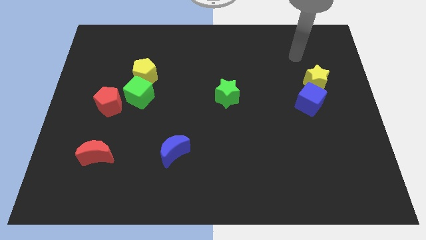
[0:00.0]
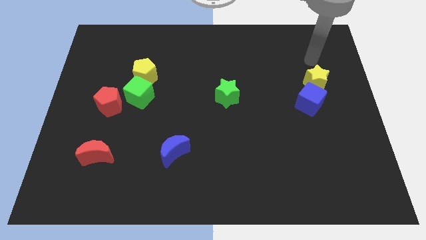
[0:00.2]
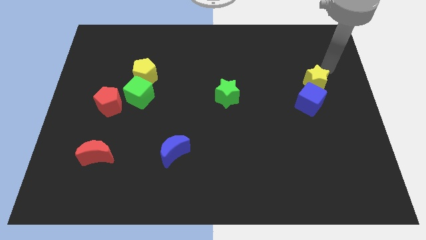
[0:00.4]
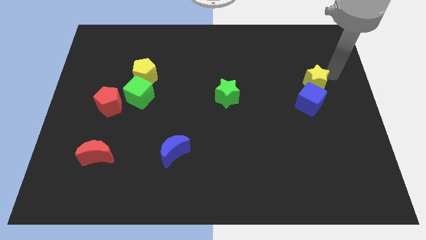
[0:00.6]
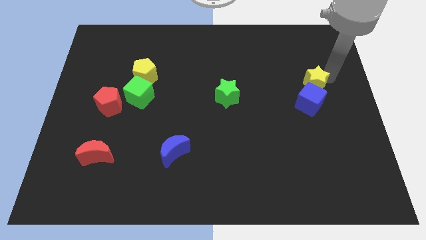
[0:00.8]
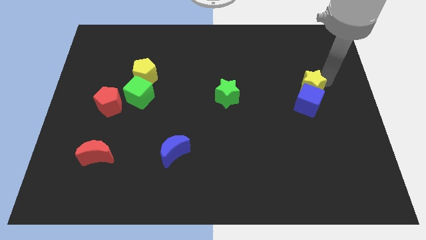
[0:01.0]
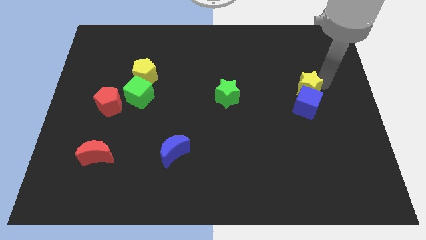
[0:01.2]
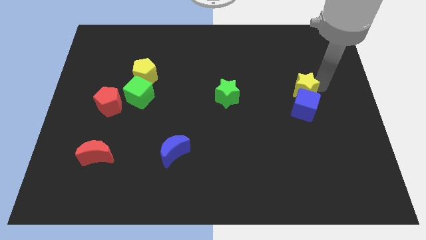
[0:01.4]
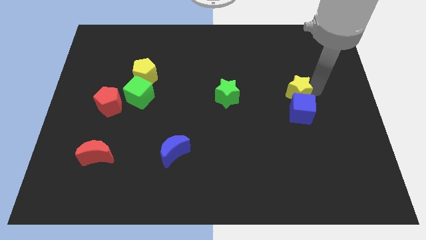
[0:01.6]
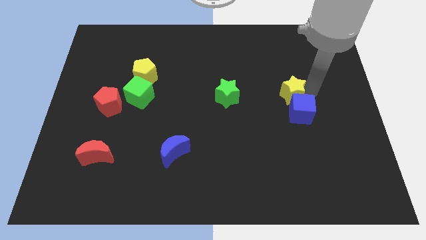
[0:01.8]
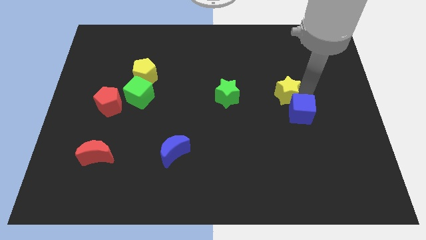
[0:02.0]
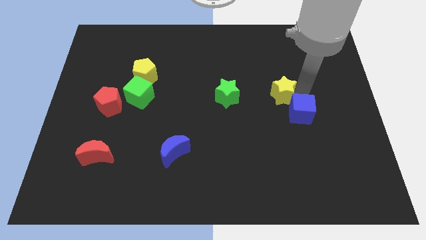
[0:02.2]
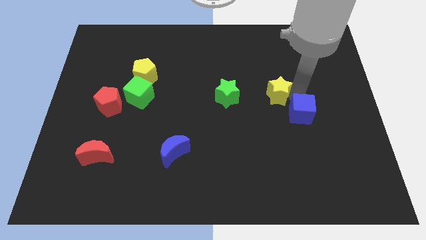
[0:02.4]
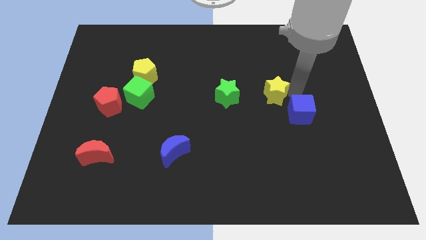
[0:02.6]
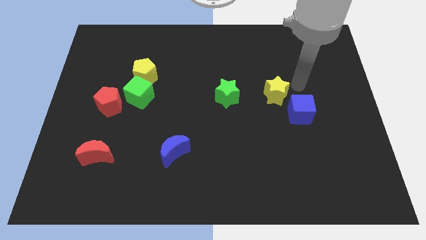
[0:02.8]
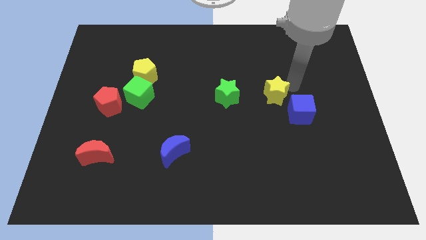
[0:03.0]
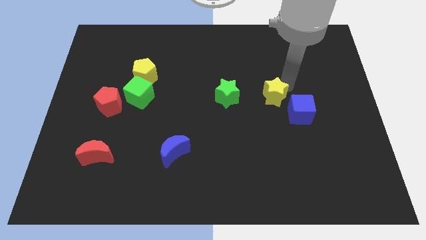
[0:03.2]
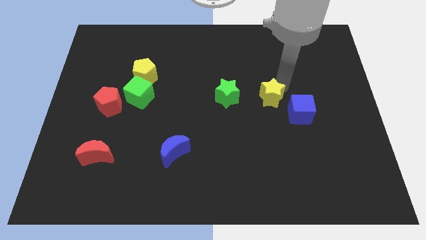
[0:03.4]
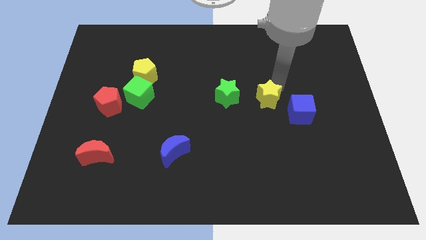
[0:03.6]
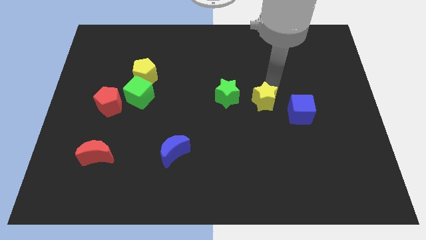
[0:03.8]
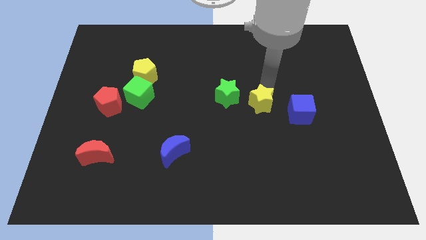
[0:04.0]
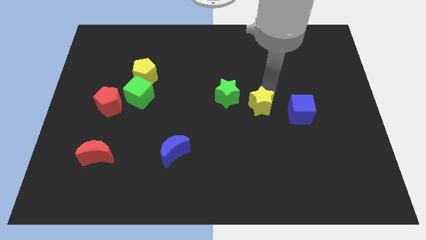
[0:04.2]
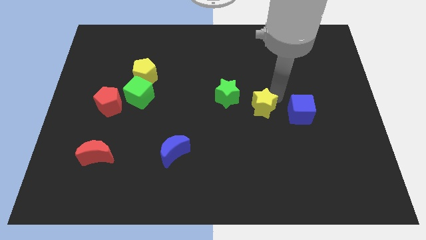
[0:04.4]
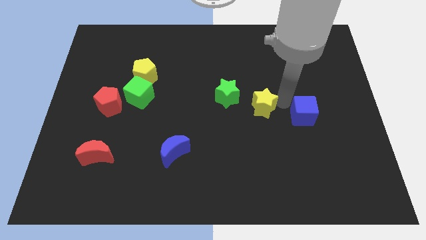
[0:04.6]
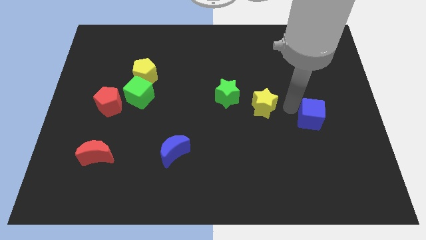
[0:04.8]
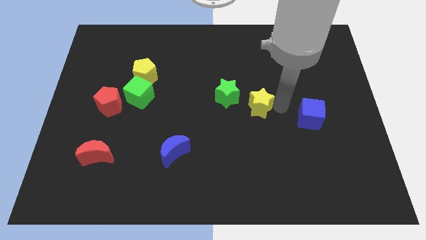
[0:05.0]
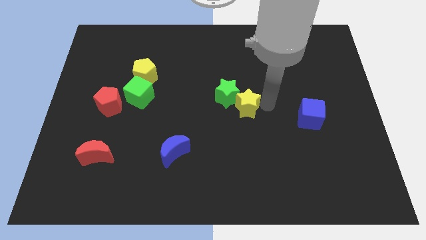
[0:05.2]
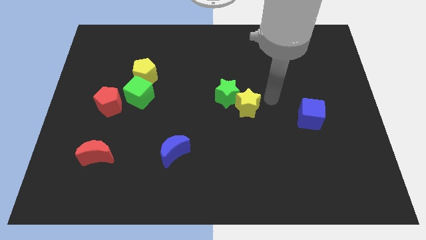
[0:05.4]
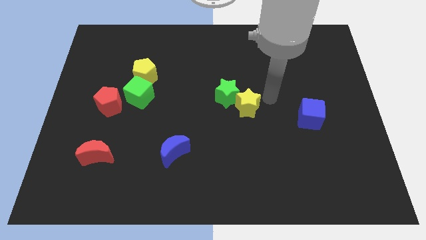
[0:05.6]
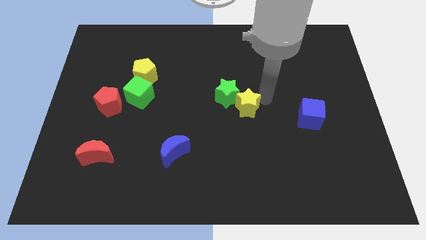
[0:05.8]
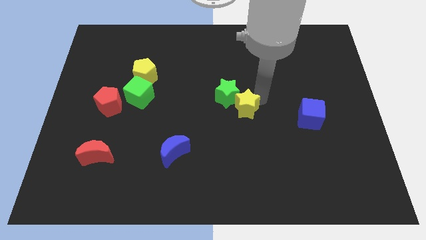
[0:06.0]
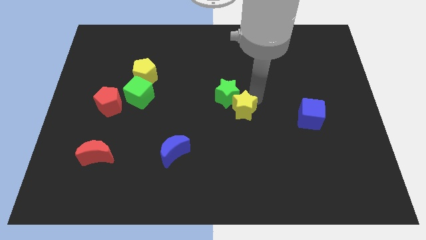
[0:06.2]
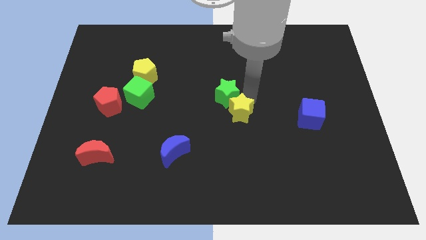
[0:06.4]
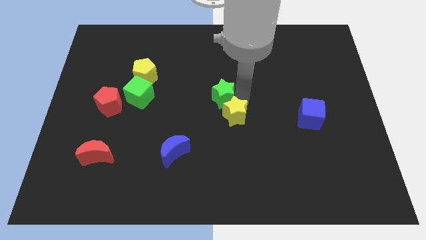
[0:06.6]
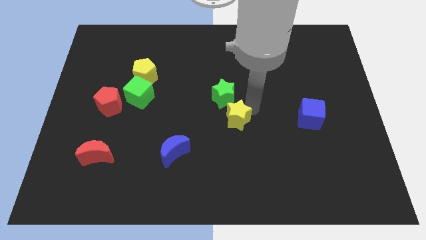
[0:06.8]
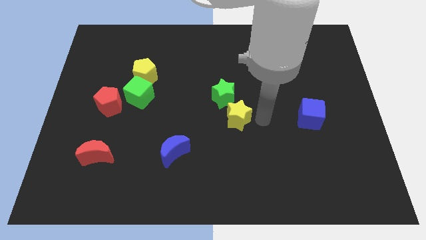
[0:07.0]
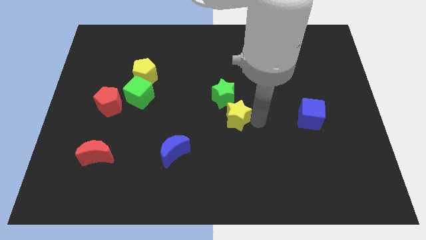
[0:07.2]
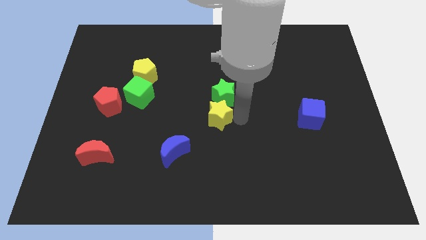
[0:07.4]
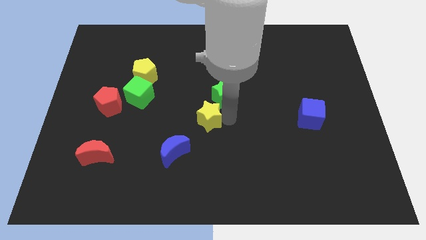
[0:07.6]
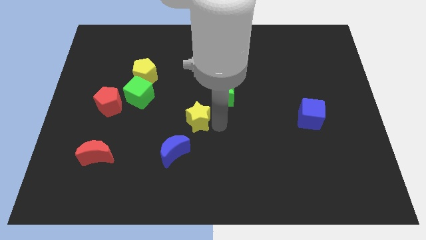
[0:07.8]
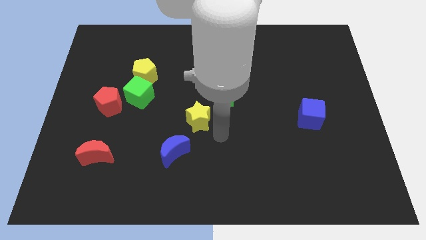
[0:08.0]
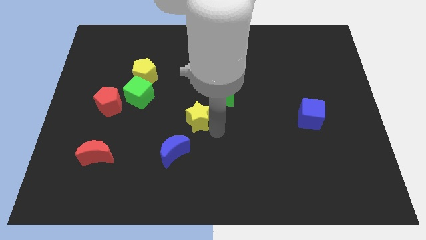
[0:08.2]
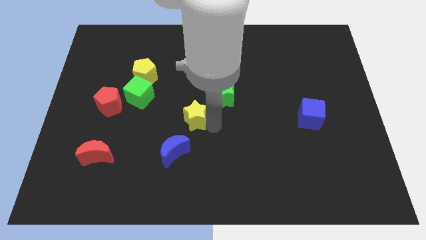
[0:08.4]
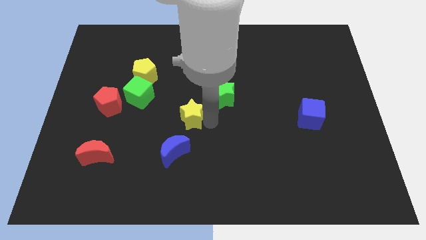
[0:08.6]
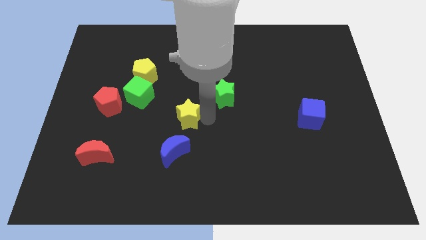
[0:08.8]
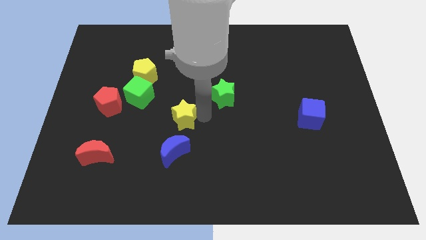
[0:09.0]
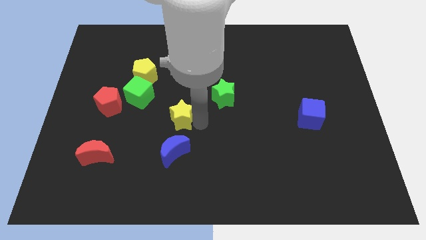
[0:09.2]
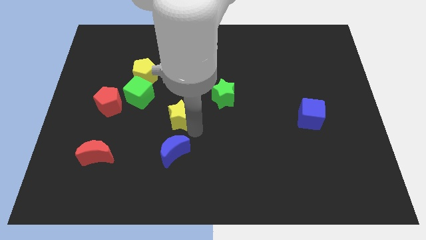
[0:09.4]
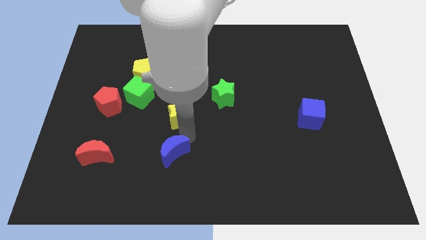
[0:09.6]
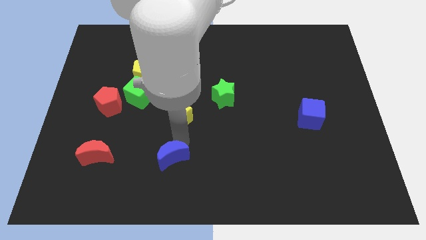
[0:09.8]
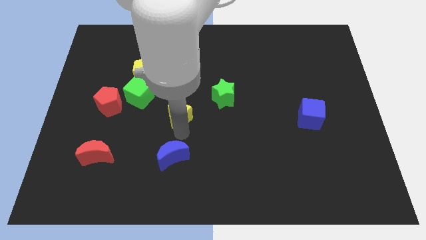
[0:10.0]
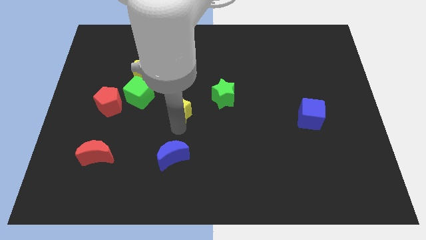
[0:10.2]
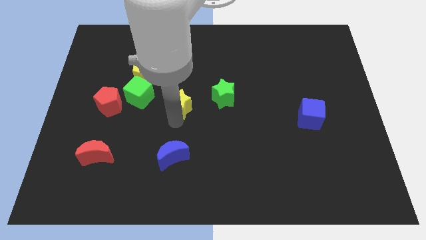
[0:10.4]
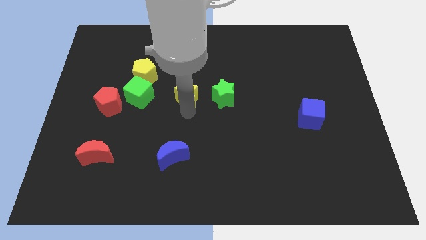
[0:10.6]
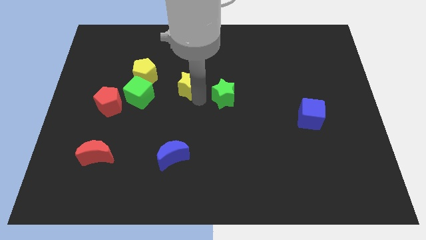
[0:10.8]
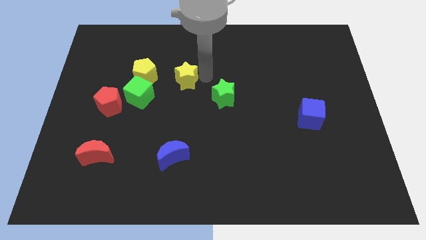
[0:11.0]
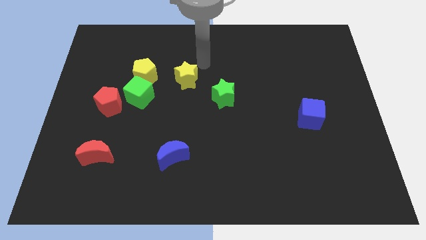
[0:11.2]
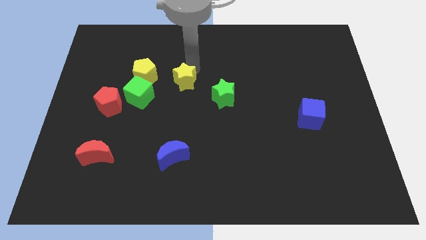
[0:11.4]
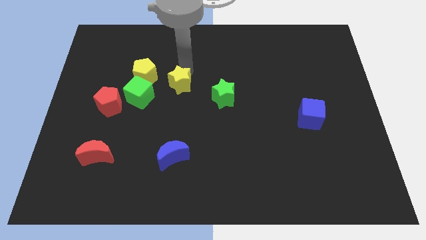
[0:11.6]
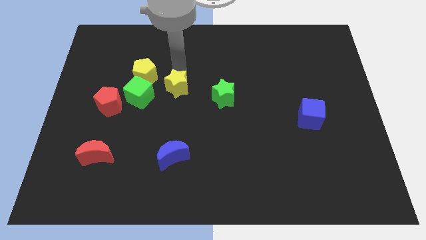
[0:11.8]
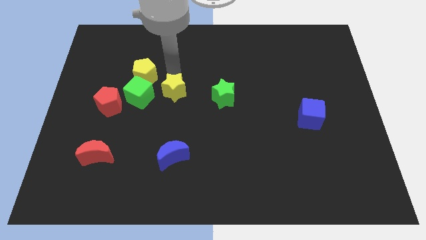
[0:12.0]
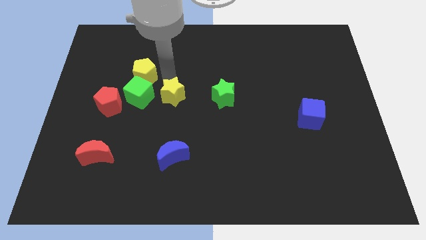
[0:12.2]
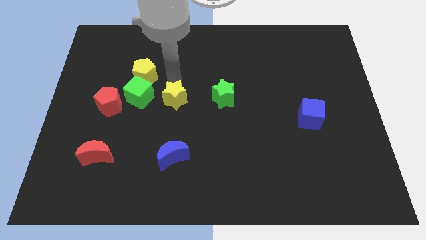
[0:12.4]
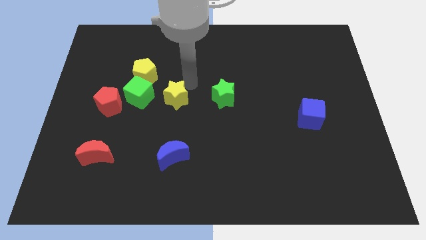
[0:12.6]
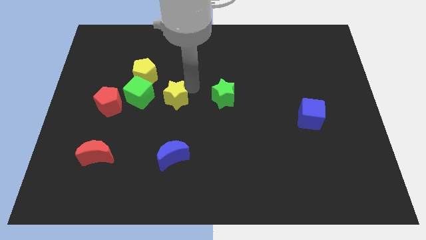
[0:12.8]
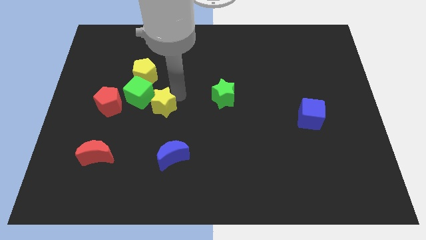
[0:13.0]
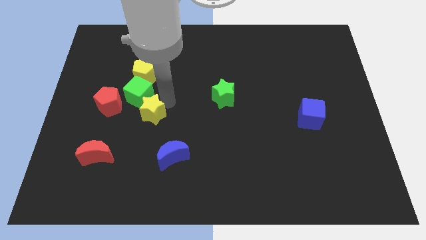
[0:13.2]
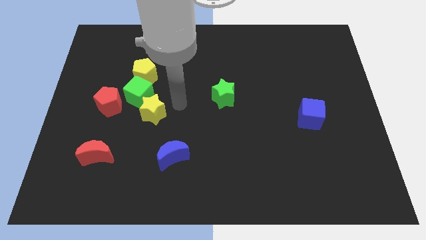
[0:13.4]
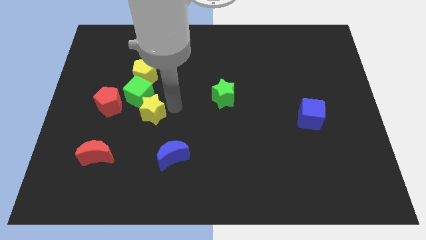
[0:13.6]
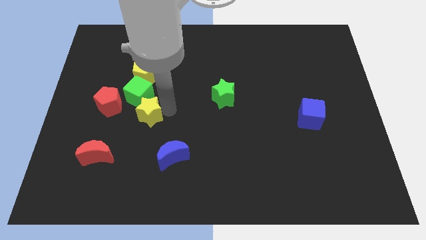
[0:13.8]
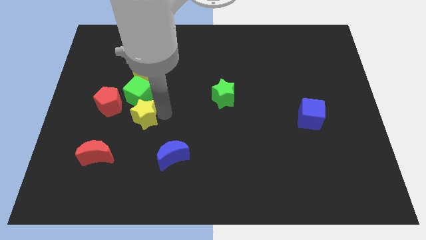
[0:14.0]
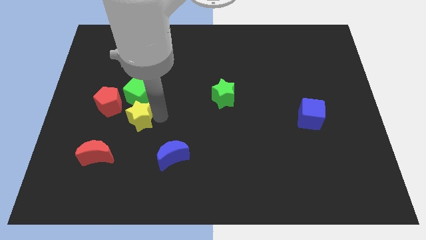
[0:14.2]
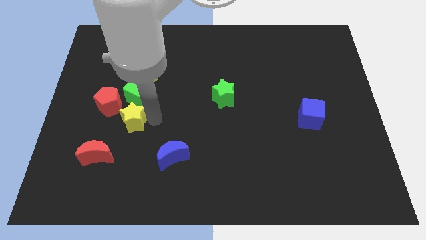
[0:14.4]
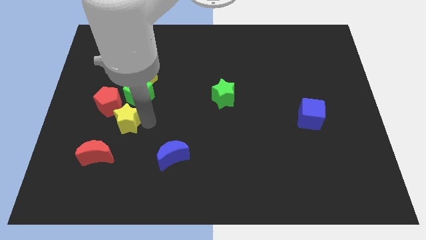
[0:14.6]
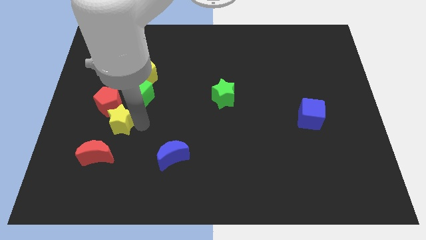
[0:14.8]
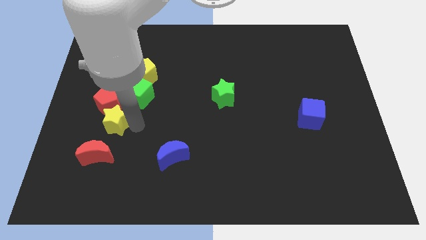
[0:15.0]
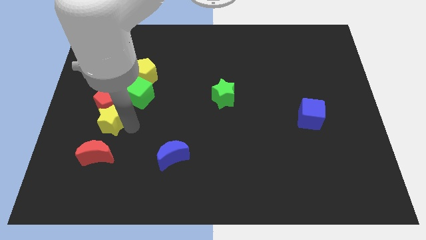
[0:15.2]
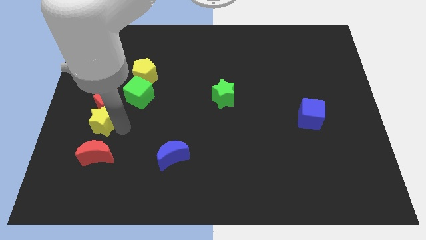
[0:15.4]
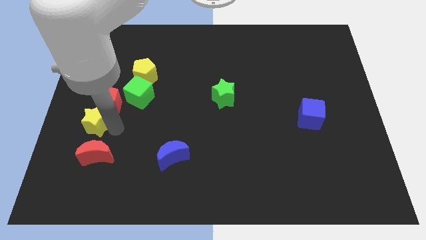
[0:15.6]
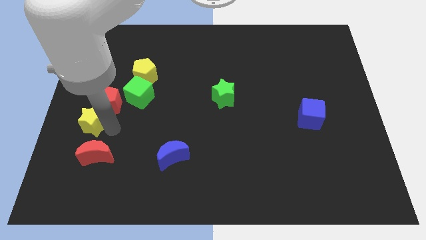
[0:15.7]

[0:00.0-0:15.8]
push the yellow star to the left side of the board
